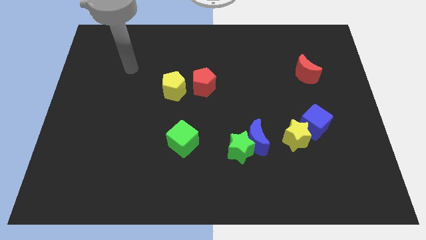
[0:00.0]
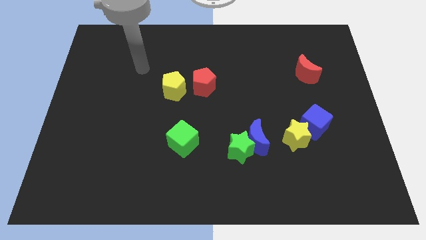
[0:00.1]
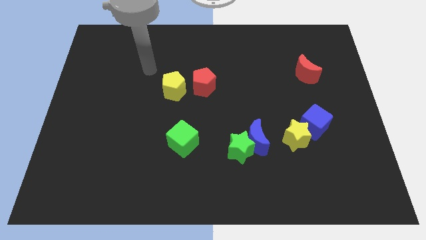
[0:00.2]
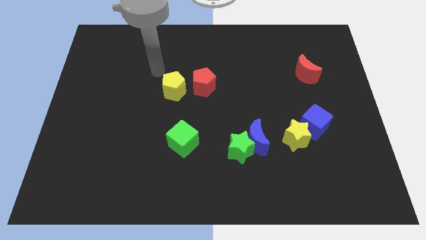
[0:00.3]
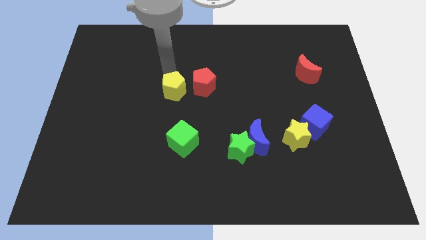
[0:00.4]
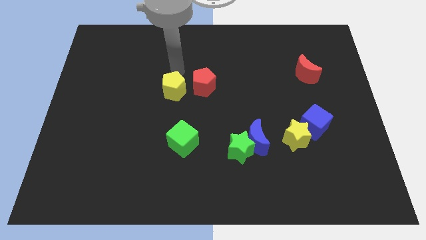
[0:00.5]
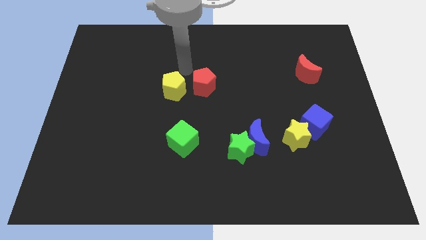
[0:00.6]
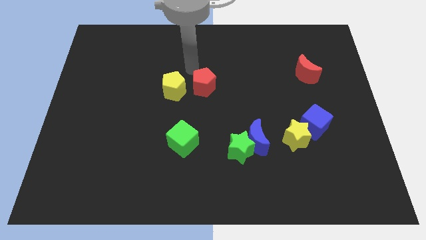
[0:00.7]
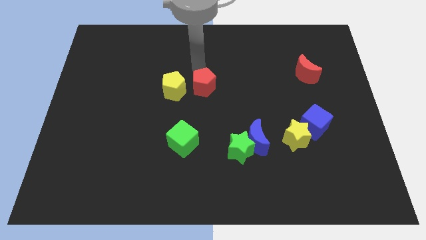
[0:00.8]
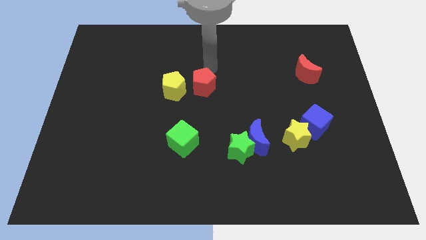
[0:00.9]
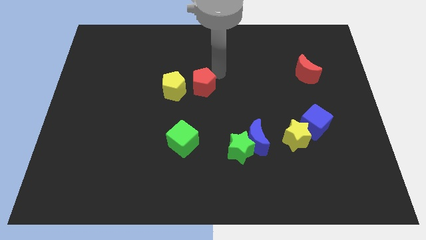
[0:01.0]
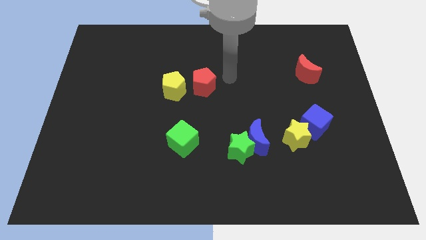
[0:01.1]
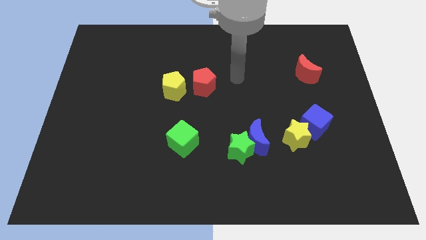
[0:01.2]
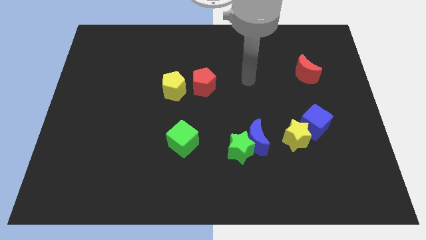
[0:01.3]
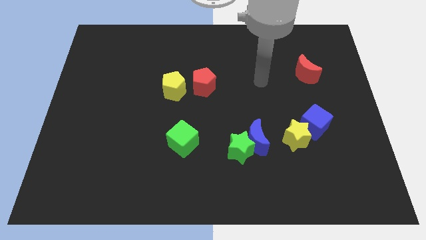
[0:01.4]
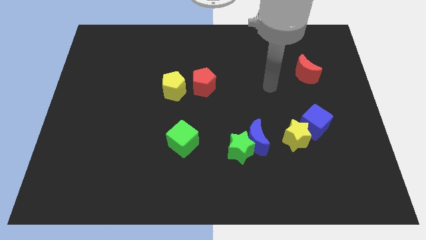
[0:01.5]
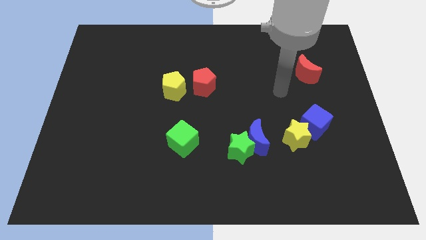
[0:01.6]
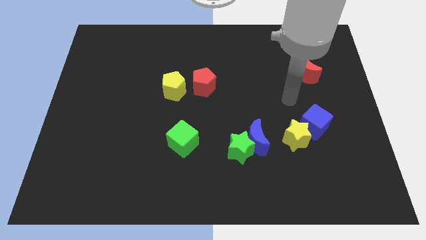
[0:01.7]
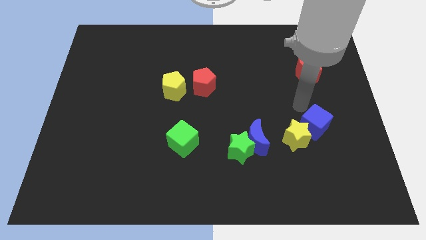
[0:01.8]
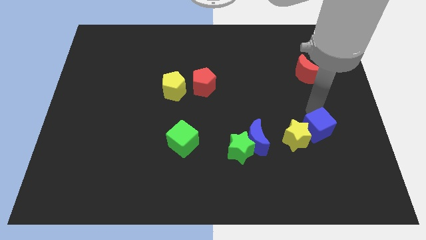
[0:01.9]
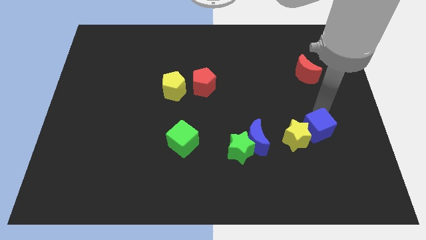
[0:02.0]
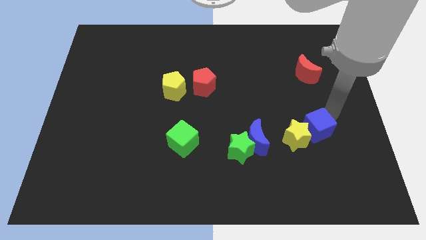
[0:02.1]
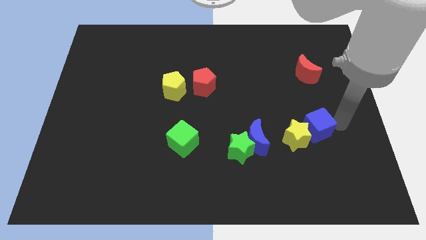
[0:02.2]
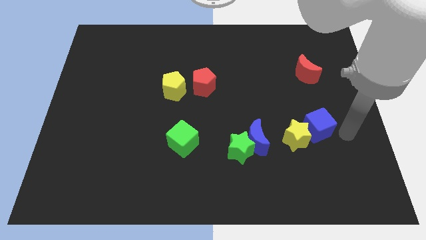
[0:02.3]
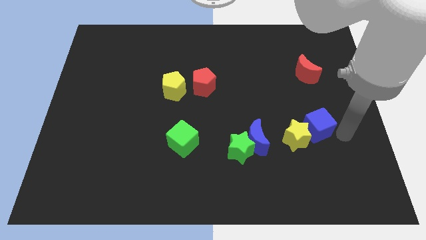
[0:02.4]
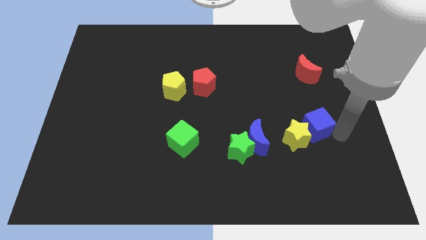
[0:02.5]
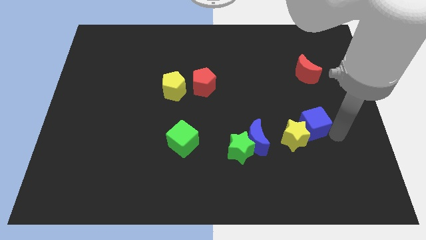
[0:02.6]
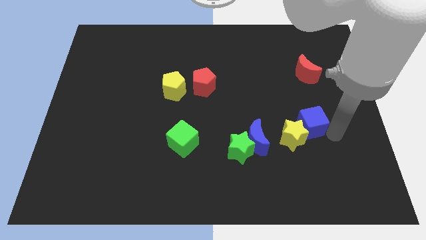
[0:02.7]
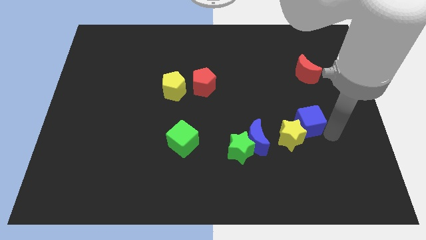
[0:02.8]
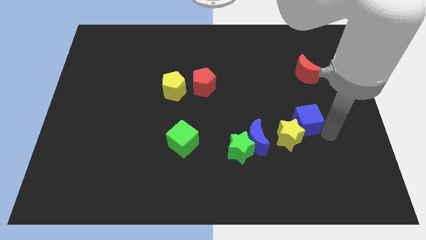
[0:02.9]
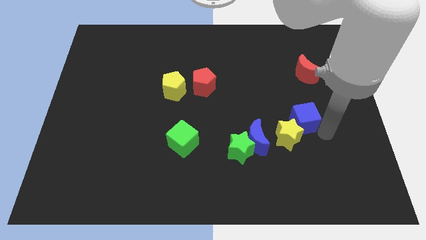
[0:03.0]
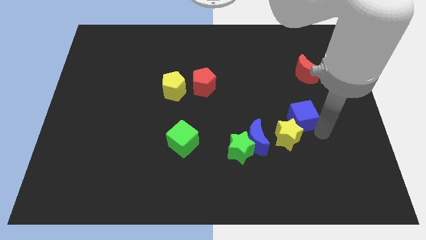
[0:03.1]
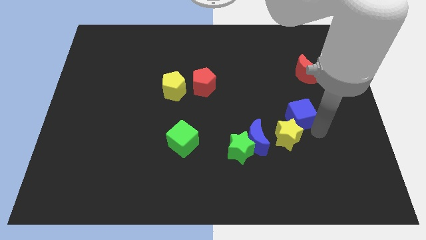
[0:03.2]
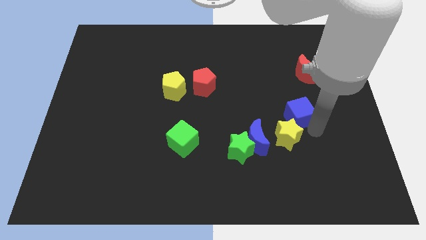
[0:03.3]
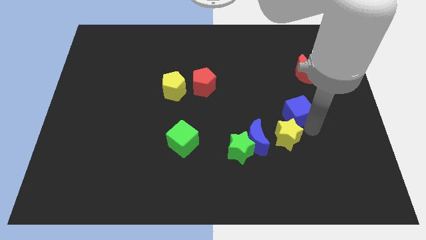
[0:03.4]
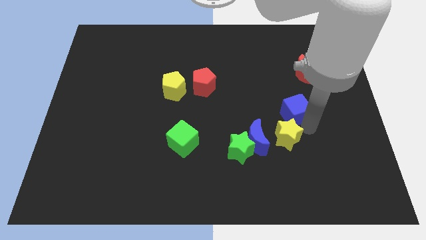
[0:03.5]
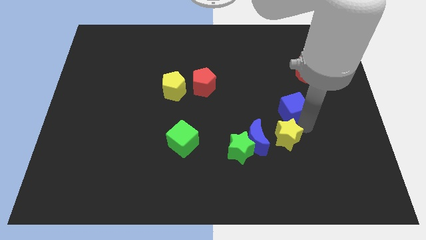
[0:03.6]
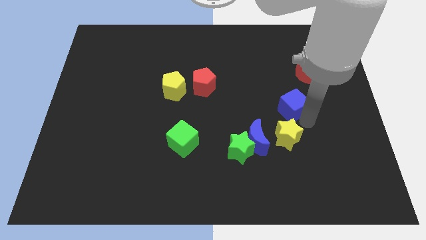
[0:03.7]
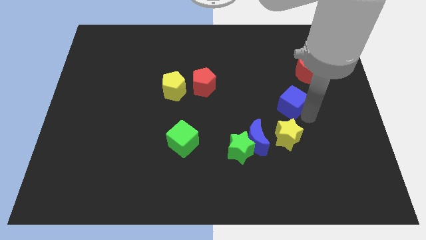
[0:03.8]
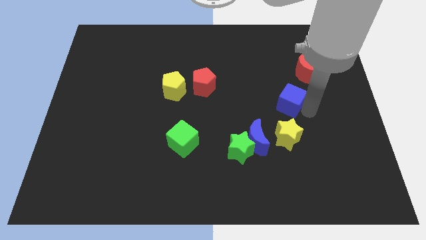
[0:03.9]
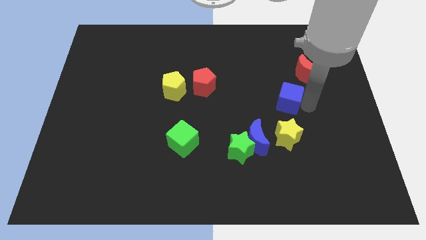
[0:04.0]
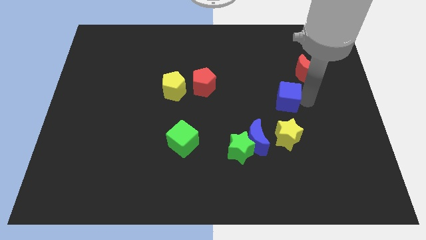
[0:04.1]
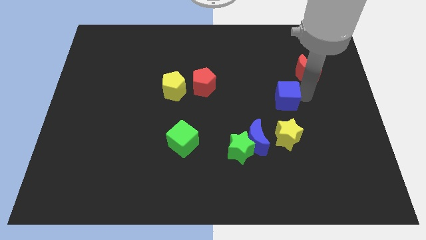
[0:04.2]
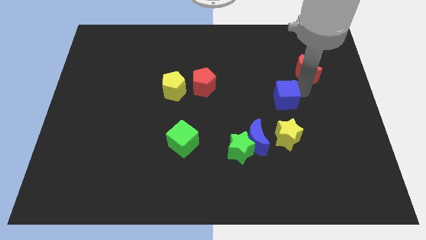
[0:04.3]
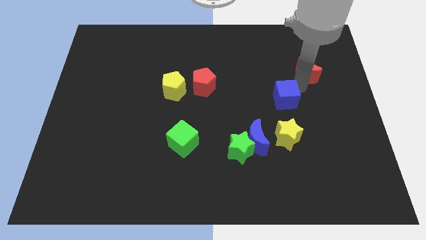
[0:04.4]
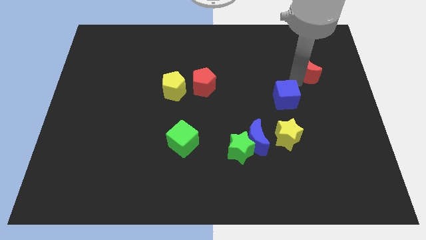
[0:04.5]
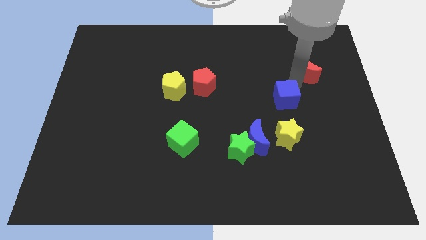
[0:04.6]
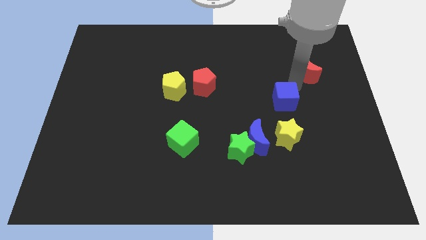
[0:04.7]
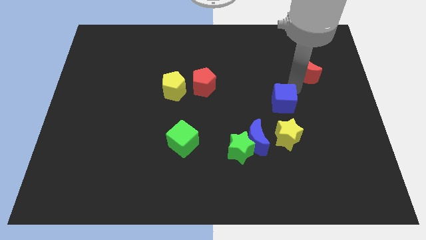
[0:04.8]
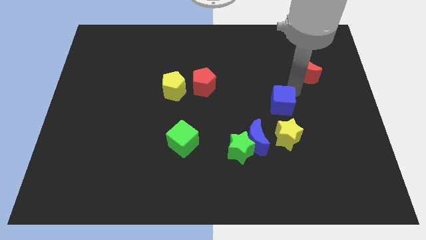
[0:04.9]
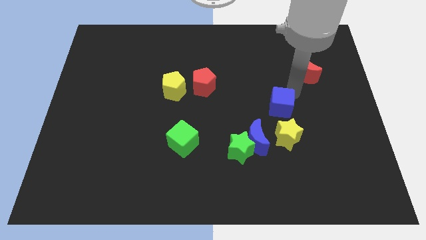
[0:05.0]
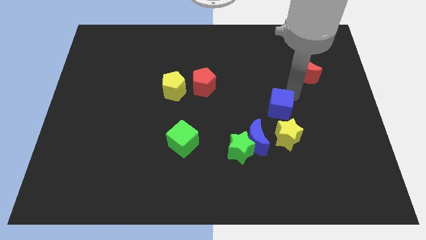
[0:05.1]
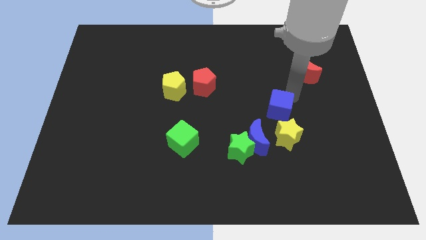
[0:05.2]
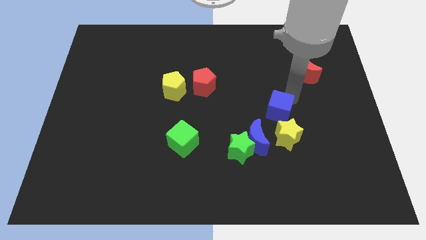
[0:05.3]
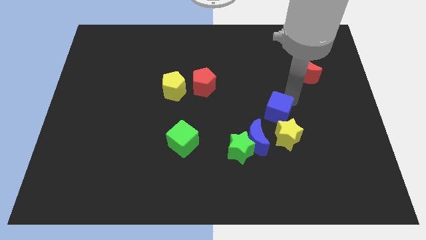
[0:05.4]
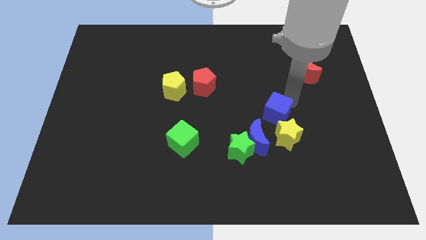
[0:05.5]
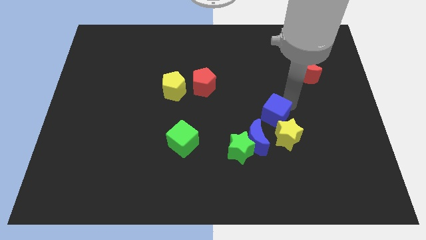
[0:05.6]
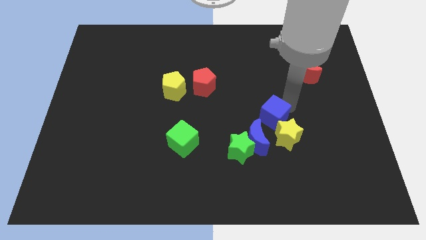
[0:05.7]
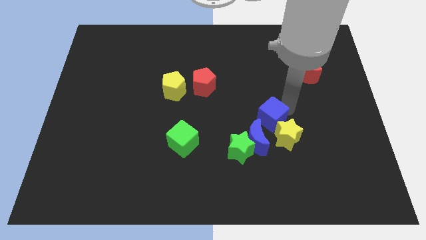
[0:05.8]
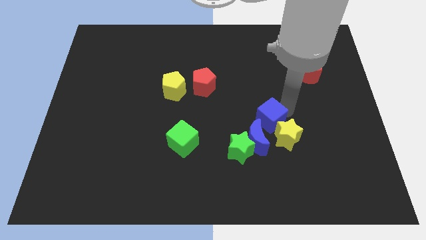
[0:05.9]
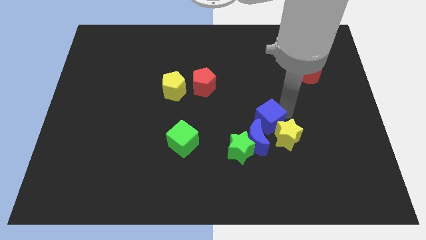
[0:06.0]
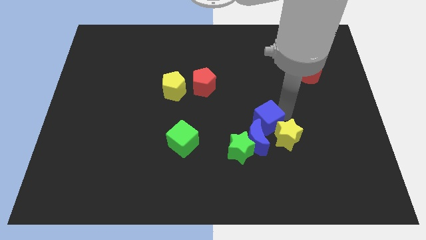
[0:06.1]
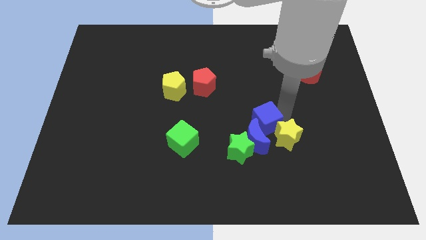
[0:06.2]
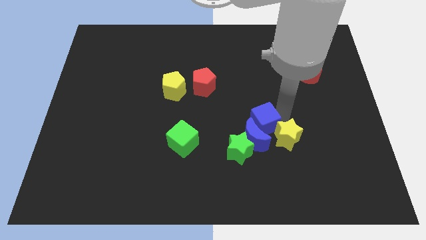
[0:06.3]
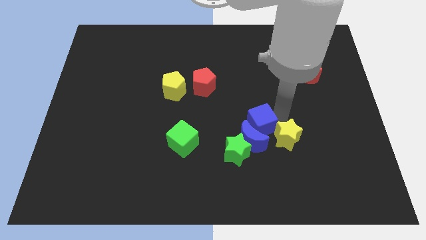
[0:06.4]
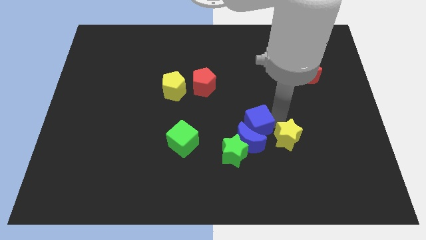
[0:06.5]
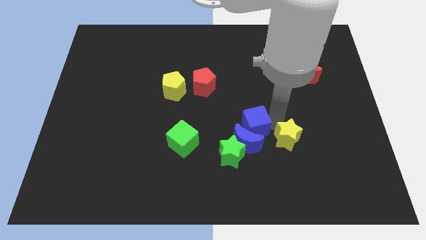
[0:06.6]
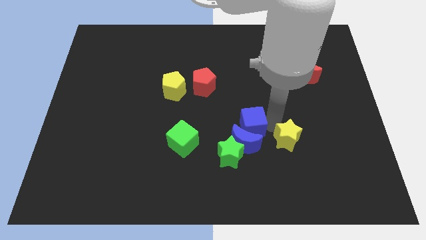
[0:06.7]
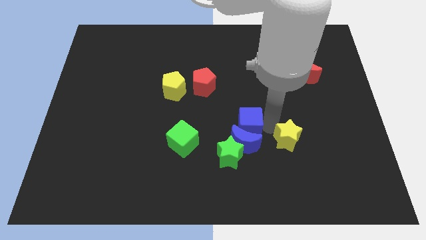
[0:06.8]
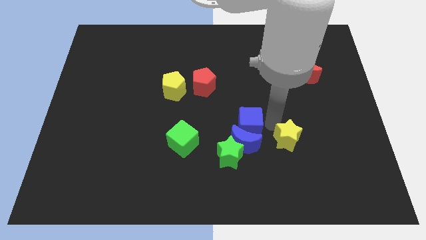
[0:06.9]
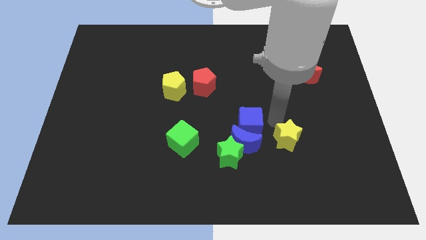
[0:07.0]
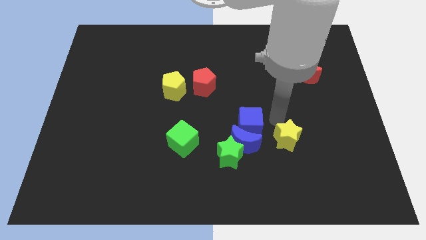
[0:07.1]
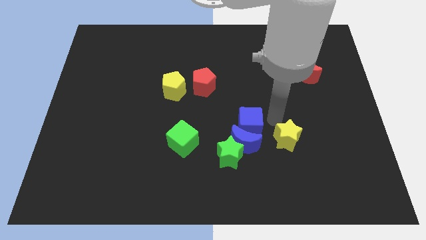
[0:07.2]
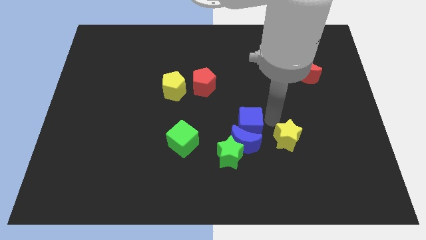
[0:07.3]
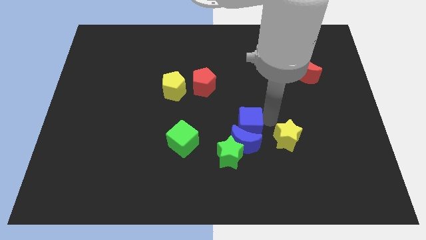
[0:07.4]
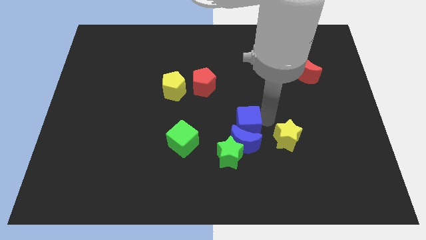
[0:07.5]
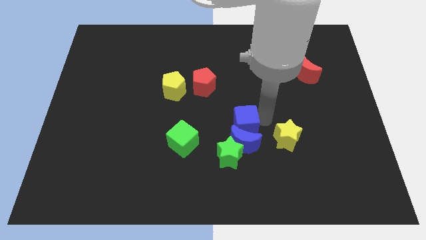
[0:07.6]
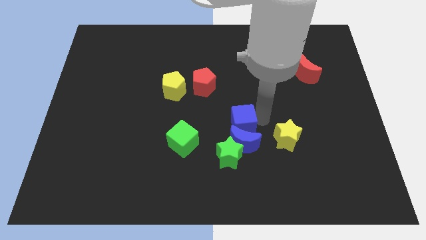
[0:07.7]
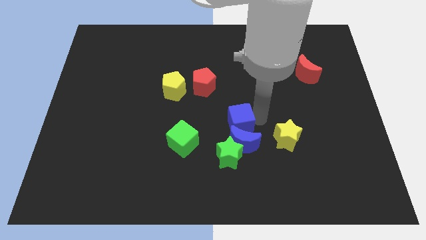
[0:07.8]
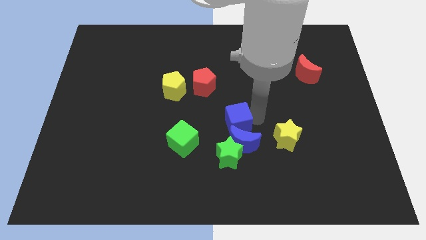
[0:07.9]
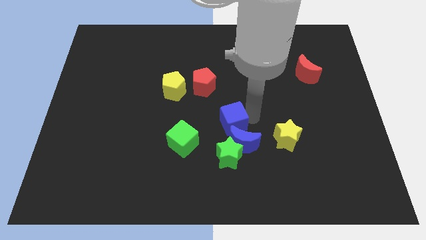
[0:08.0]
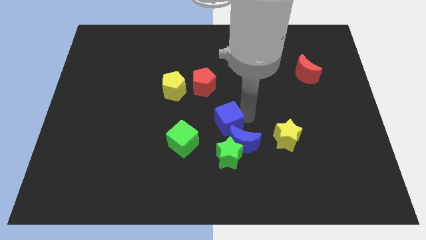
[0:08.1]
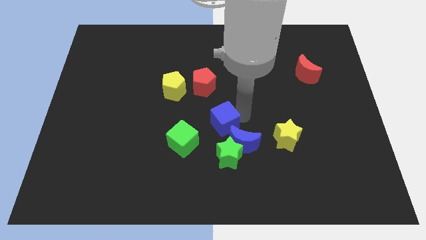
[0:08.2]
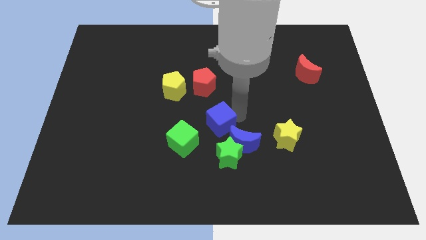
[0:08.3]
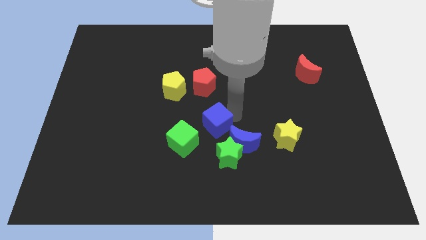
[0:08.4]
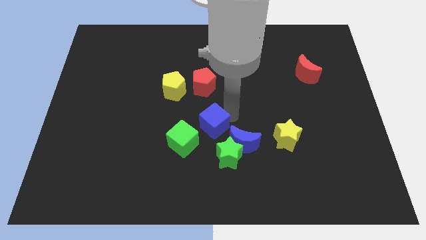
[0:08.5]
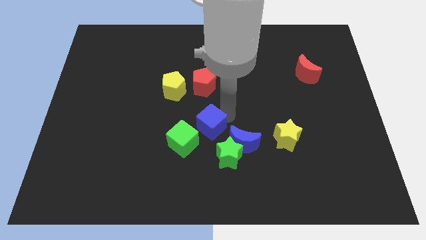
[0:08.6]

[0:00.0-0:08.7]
put the blue cube to the left side of the blue moon
